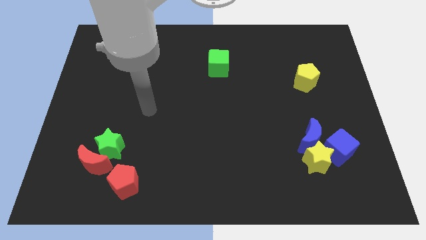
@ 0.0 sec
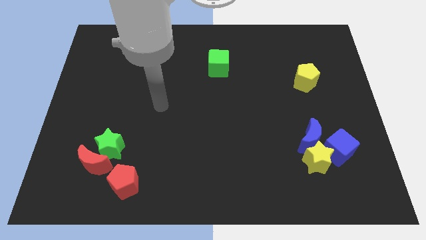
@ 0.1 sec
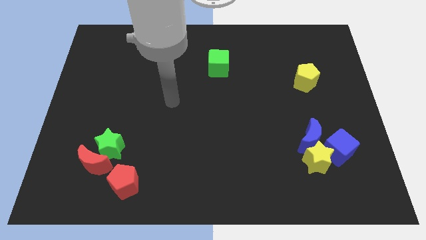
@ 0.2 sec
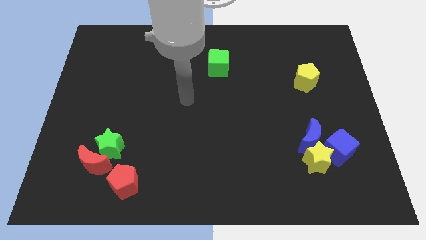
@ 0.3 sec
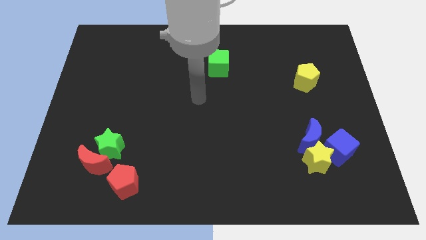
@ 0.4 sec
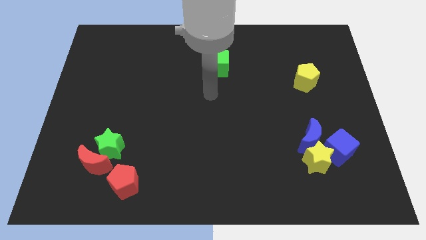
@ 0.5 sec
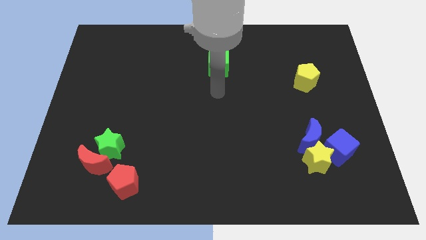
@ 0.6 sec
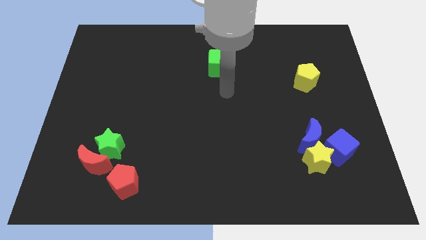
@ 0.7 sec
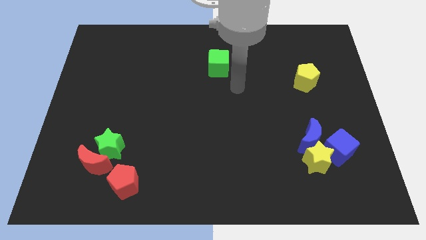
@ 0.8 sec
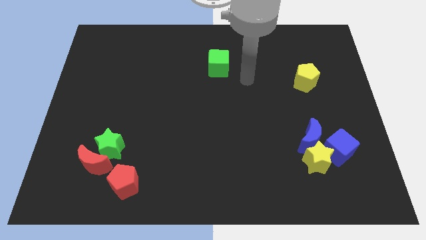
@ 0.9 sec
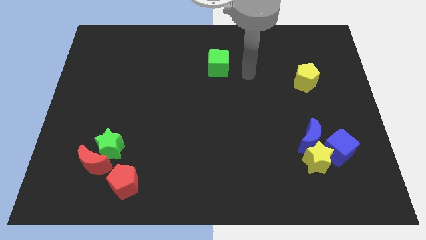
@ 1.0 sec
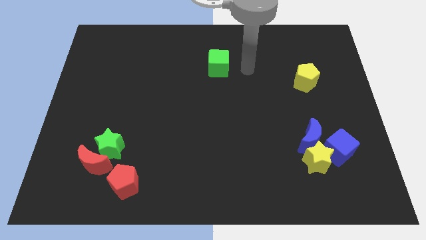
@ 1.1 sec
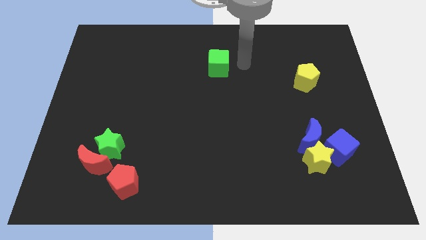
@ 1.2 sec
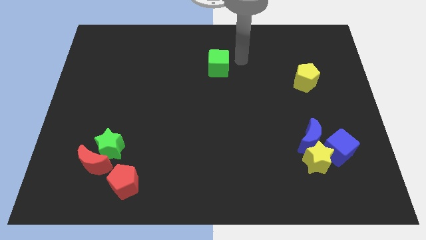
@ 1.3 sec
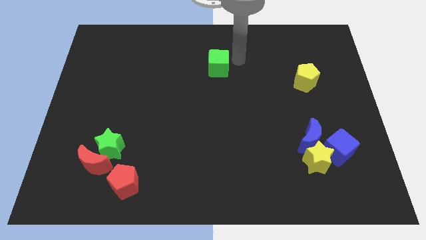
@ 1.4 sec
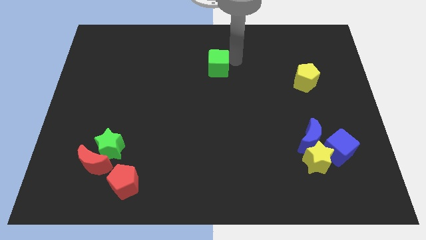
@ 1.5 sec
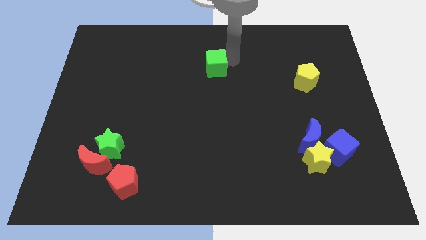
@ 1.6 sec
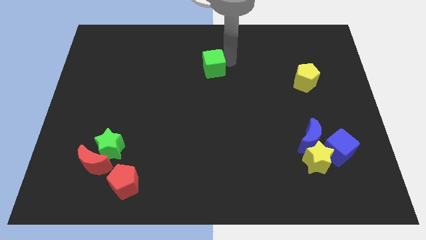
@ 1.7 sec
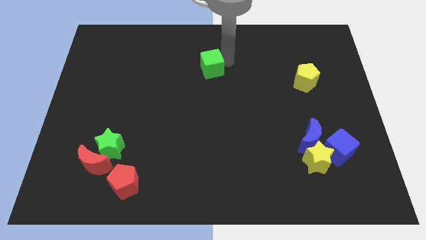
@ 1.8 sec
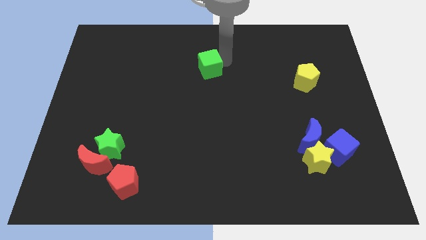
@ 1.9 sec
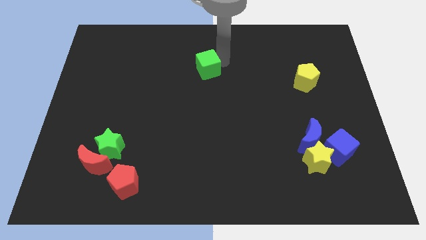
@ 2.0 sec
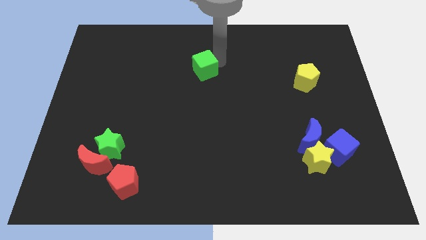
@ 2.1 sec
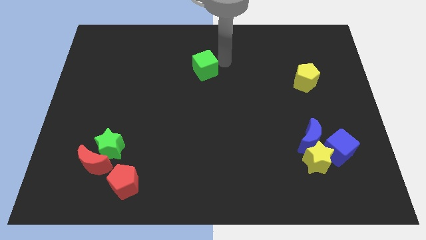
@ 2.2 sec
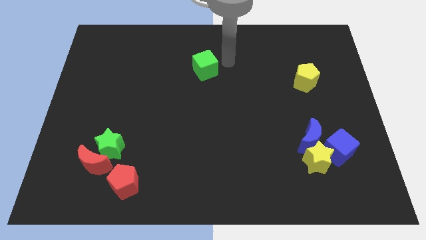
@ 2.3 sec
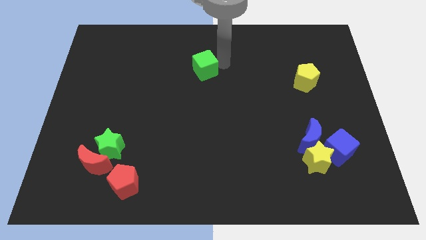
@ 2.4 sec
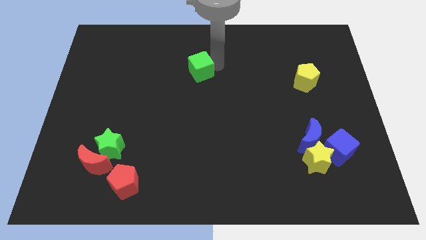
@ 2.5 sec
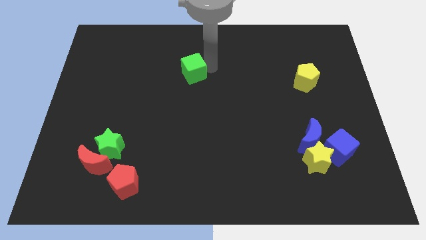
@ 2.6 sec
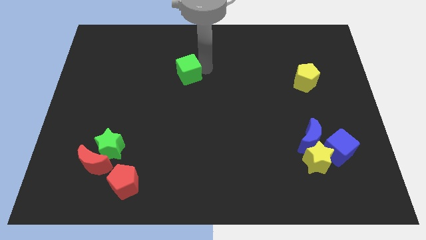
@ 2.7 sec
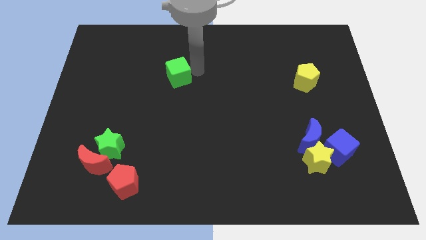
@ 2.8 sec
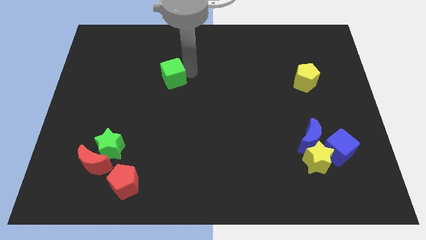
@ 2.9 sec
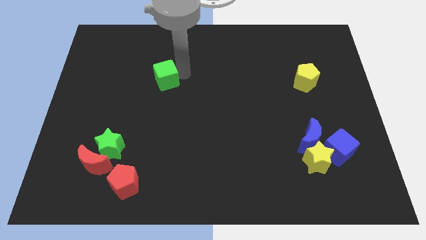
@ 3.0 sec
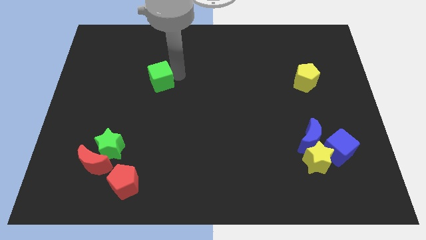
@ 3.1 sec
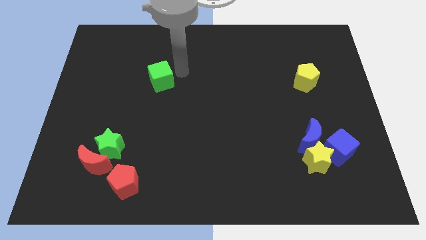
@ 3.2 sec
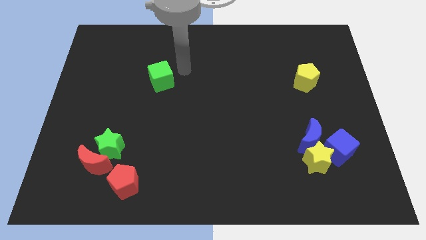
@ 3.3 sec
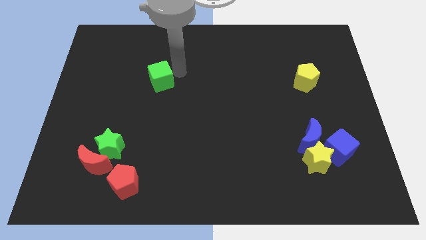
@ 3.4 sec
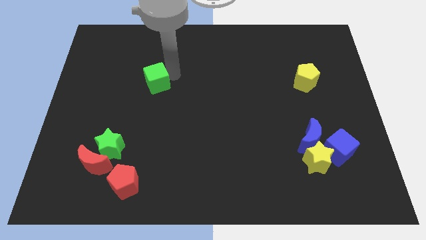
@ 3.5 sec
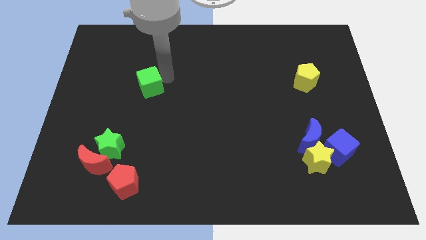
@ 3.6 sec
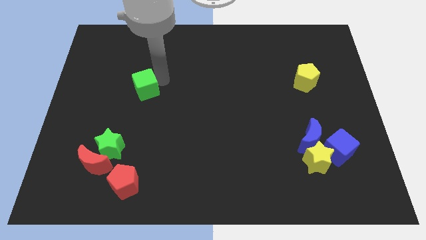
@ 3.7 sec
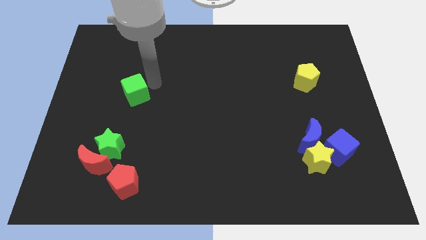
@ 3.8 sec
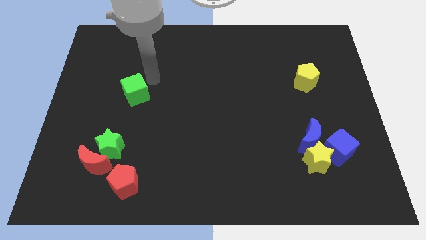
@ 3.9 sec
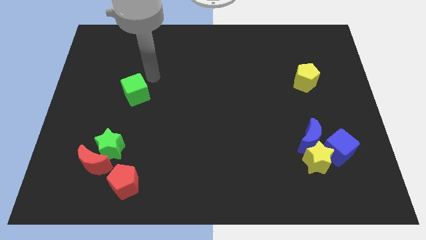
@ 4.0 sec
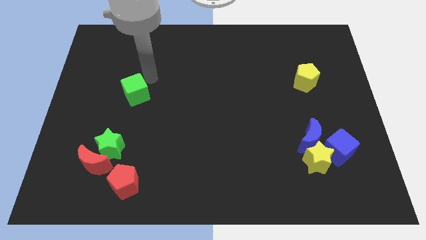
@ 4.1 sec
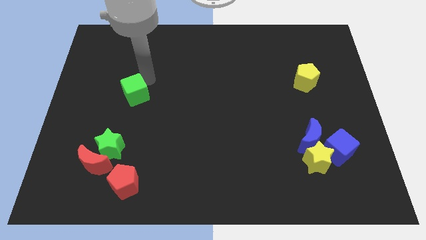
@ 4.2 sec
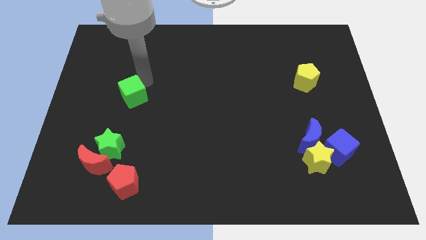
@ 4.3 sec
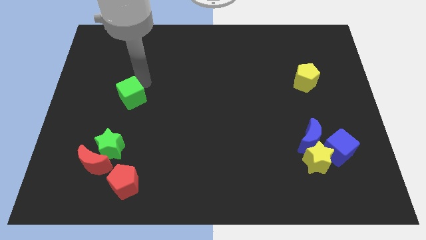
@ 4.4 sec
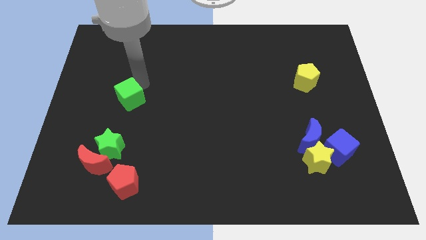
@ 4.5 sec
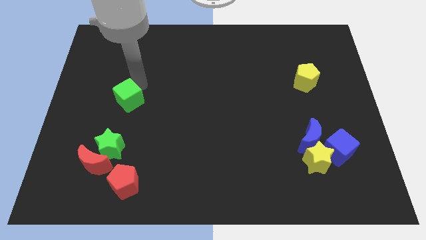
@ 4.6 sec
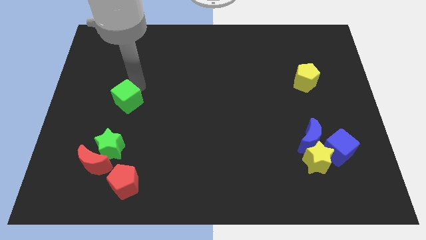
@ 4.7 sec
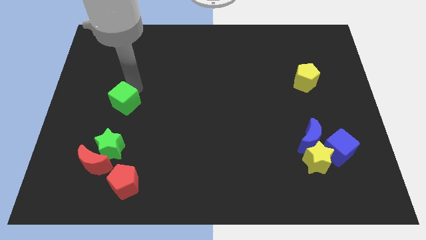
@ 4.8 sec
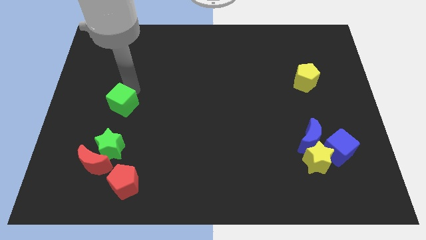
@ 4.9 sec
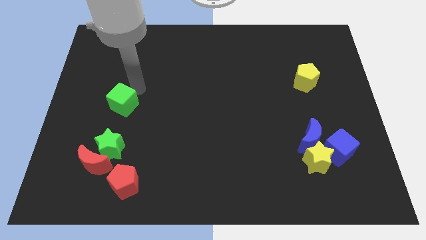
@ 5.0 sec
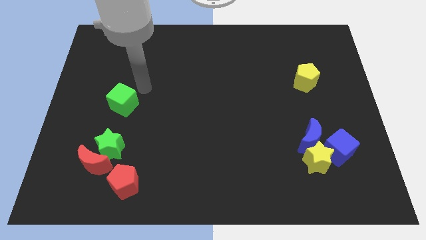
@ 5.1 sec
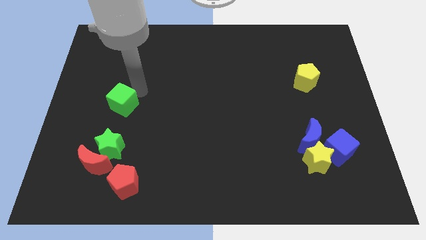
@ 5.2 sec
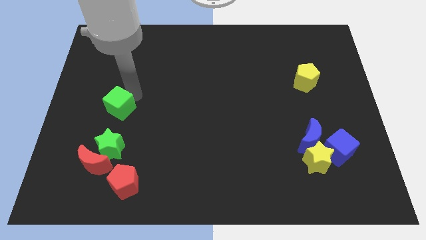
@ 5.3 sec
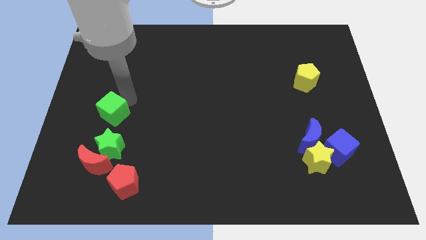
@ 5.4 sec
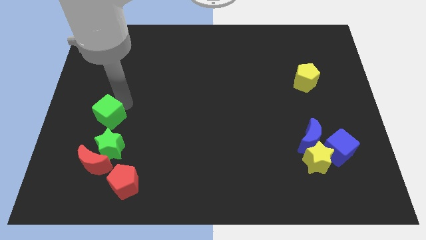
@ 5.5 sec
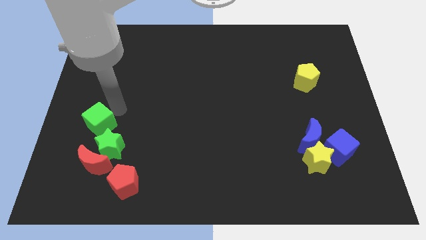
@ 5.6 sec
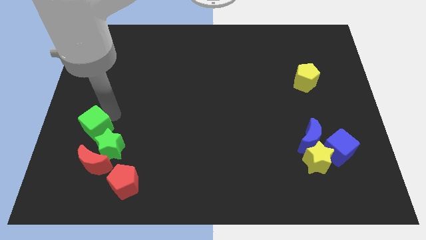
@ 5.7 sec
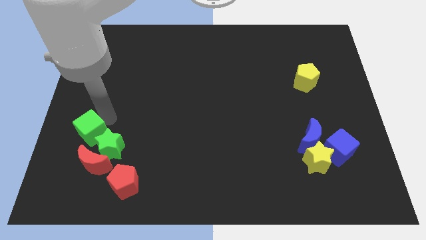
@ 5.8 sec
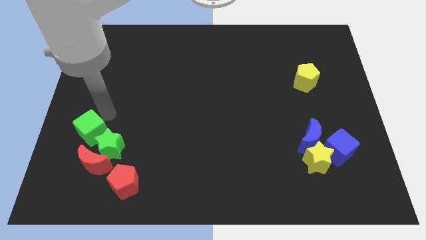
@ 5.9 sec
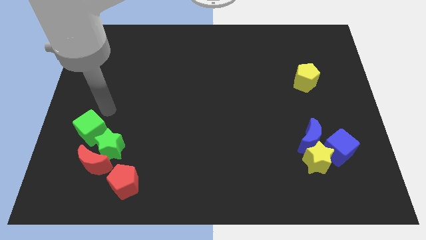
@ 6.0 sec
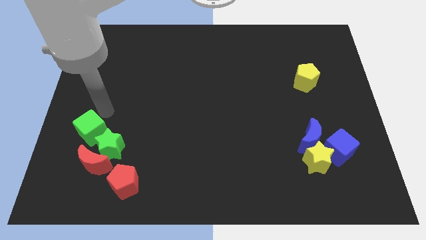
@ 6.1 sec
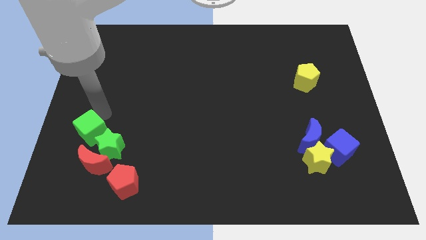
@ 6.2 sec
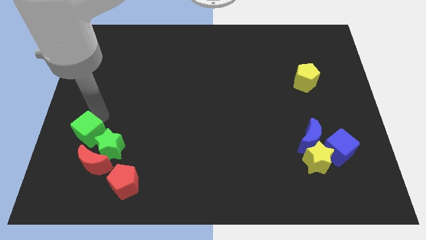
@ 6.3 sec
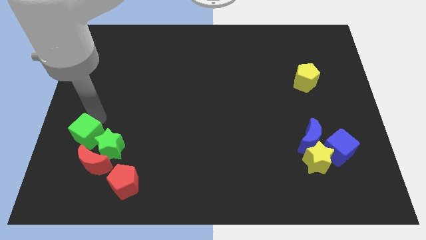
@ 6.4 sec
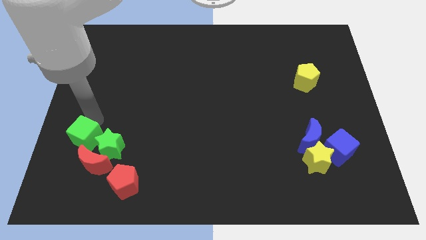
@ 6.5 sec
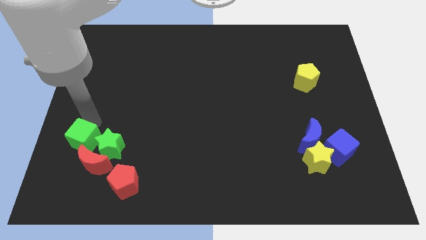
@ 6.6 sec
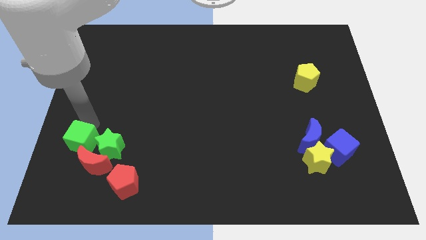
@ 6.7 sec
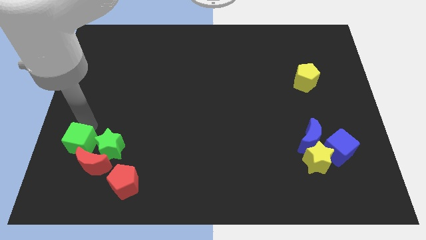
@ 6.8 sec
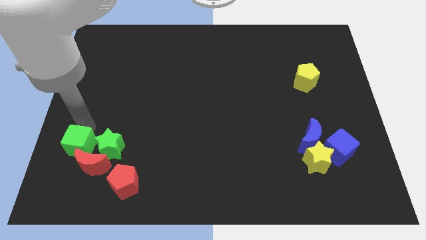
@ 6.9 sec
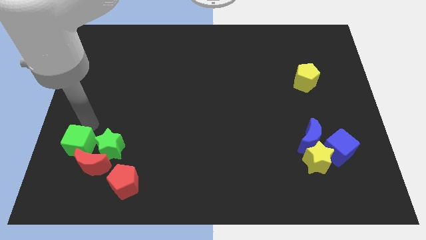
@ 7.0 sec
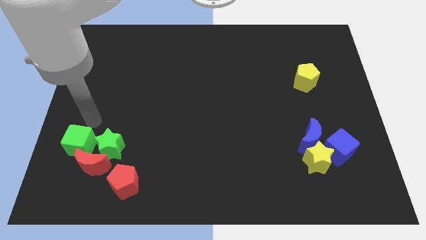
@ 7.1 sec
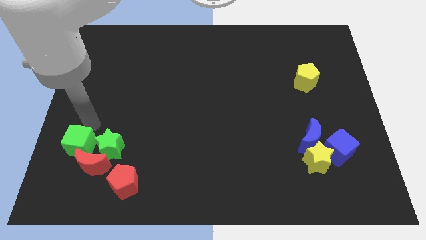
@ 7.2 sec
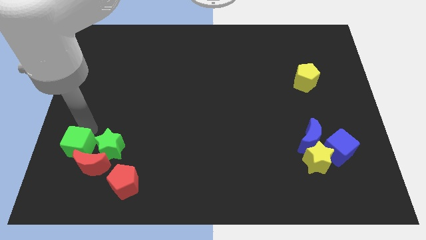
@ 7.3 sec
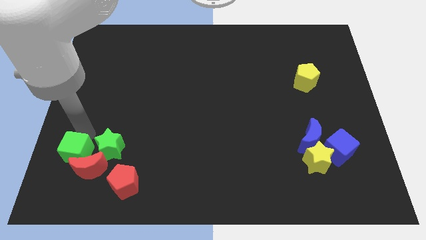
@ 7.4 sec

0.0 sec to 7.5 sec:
push the green cube diagonally down and to the left of the green star

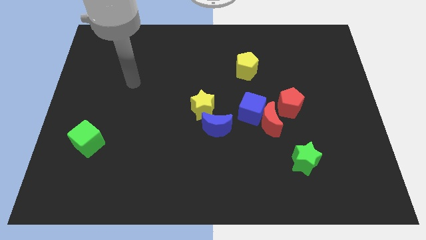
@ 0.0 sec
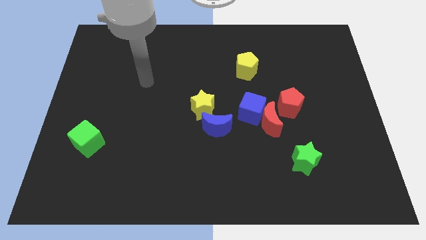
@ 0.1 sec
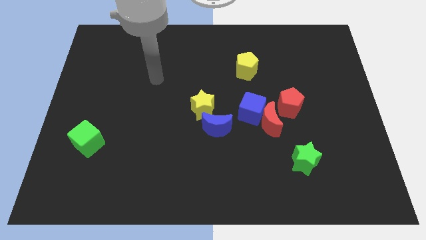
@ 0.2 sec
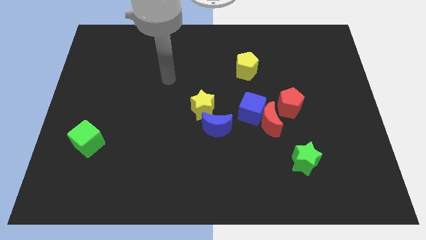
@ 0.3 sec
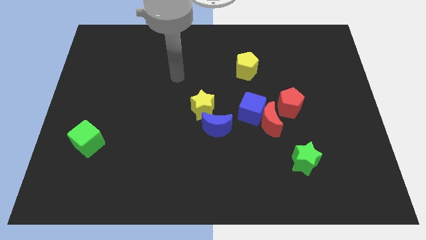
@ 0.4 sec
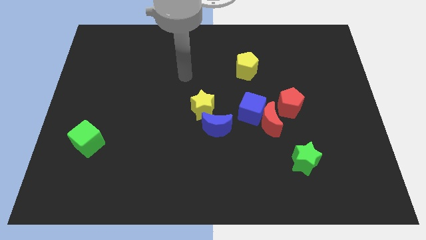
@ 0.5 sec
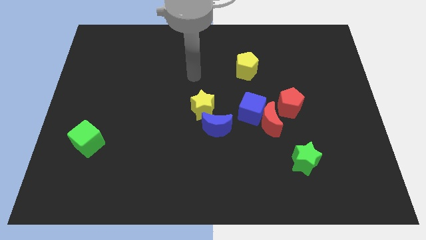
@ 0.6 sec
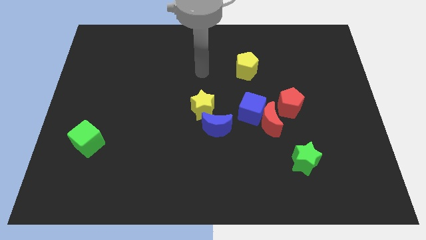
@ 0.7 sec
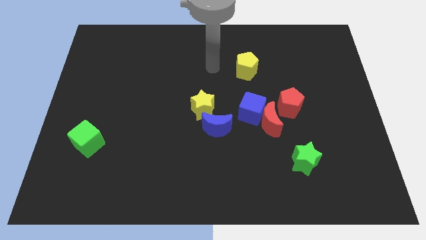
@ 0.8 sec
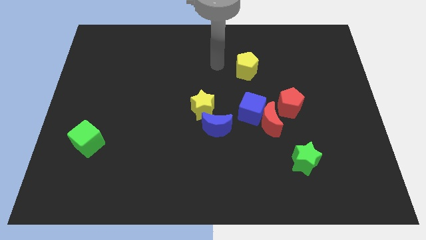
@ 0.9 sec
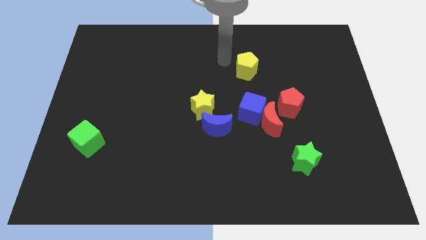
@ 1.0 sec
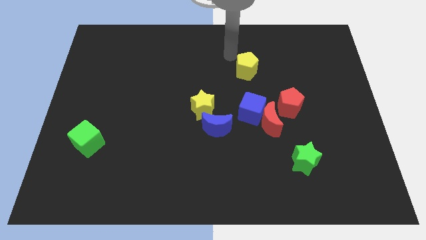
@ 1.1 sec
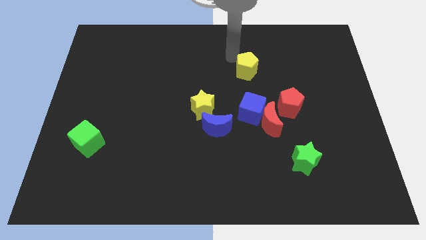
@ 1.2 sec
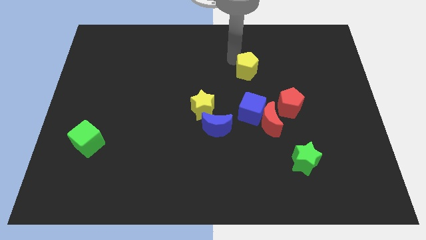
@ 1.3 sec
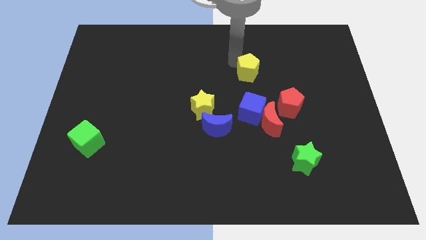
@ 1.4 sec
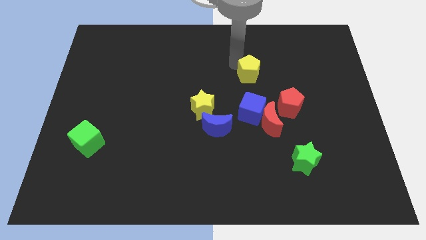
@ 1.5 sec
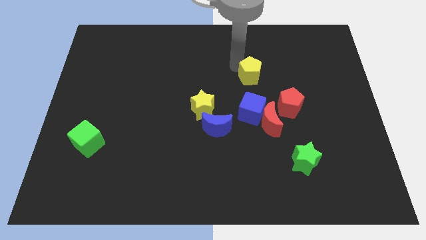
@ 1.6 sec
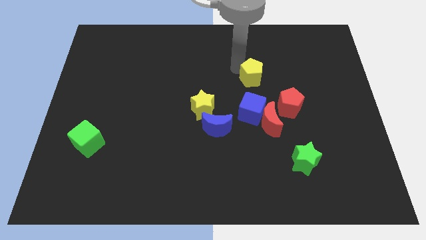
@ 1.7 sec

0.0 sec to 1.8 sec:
put the yellow pentagon diagonally up and to the left of the red pentagon
